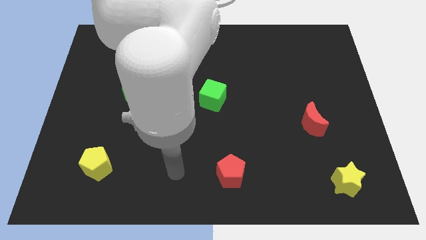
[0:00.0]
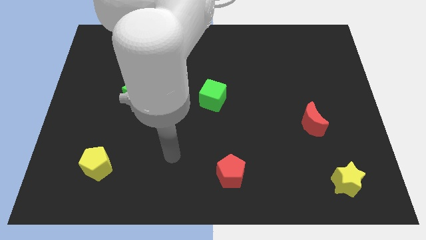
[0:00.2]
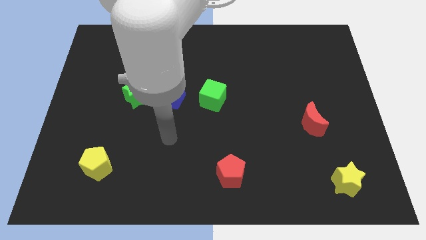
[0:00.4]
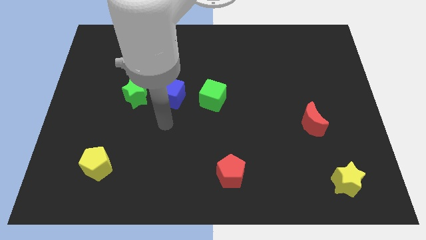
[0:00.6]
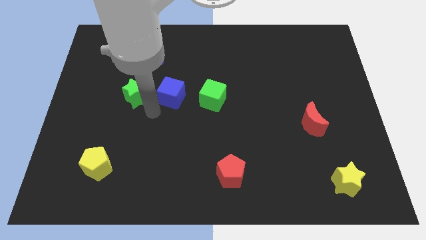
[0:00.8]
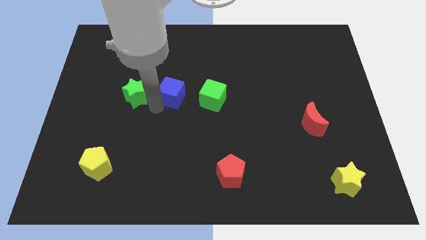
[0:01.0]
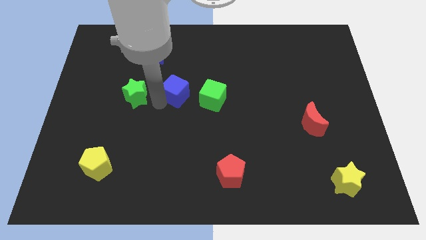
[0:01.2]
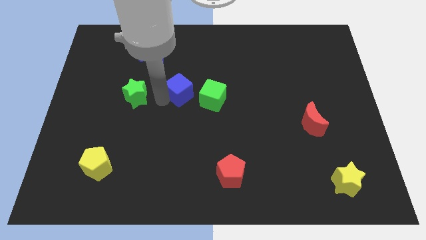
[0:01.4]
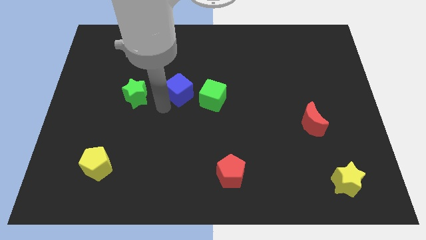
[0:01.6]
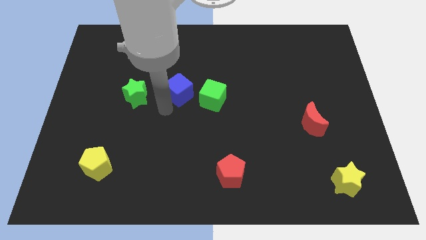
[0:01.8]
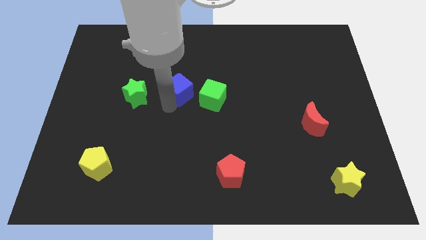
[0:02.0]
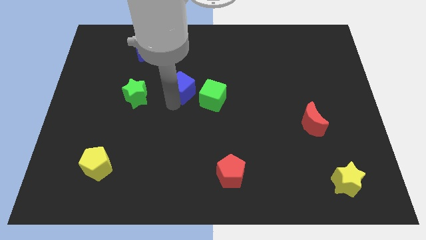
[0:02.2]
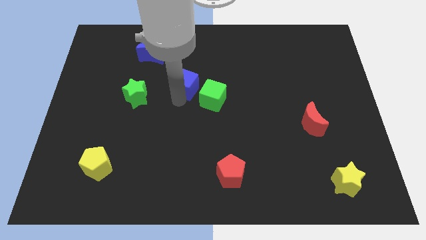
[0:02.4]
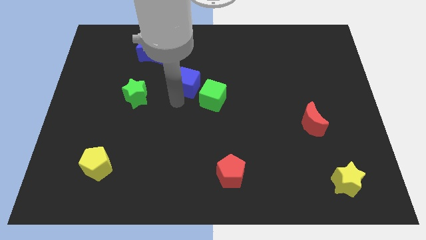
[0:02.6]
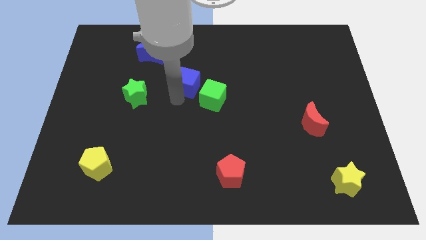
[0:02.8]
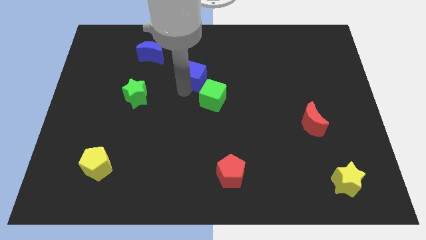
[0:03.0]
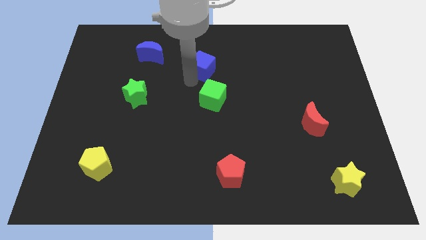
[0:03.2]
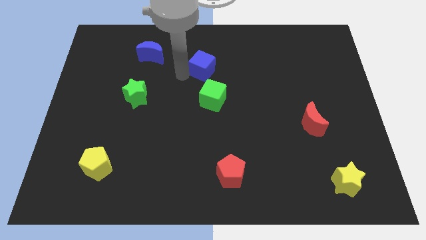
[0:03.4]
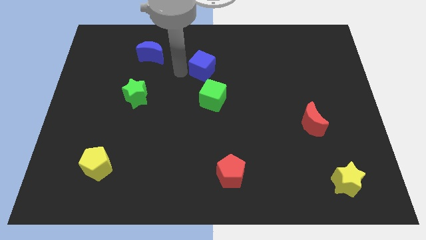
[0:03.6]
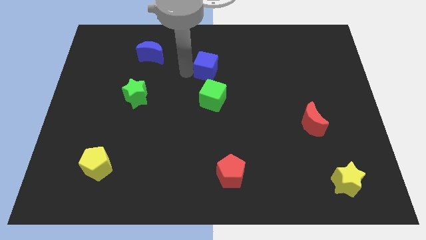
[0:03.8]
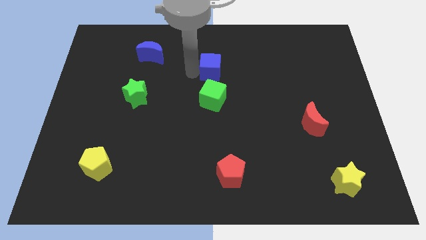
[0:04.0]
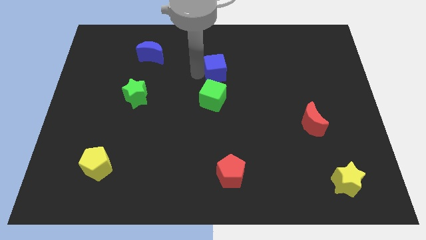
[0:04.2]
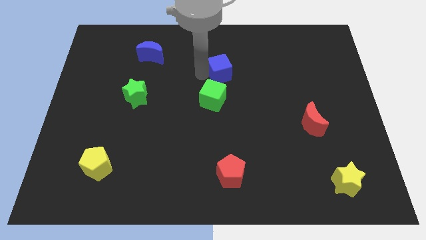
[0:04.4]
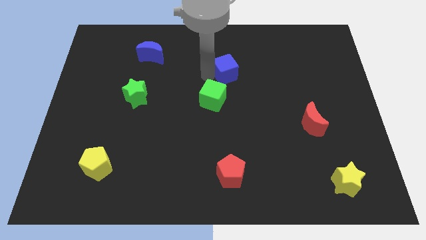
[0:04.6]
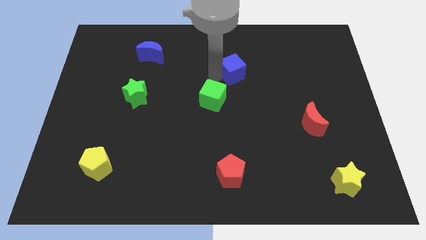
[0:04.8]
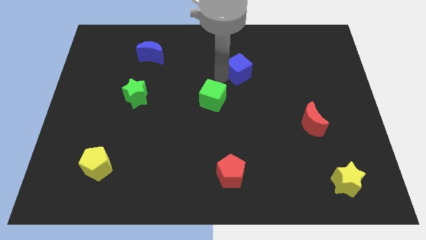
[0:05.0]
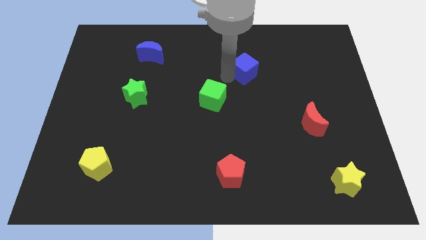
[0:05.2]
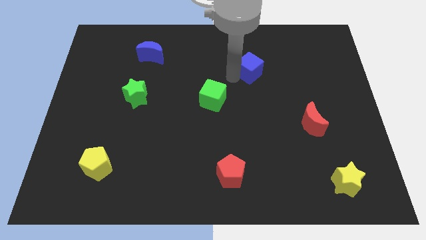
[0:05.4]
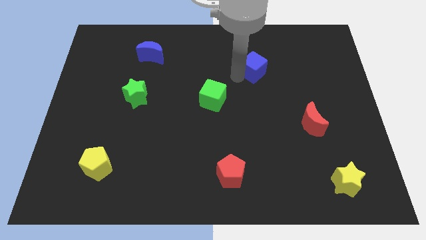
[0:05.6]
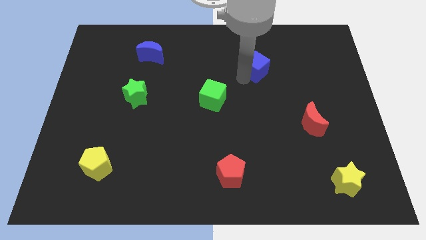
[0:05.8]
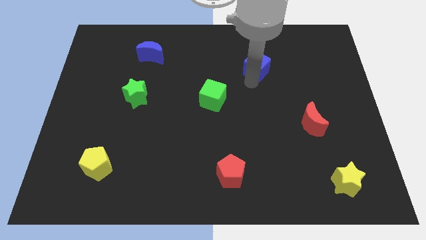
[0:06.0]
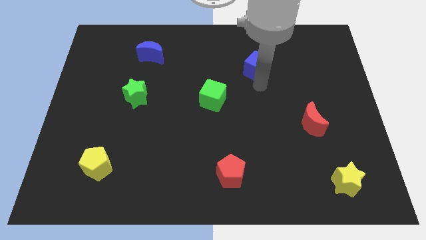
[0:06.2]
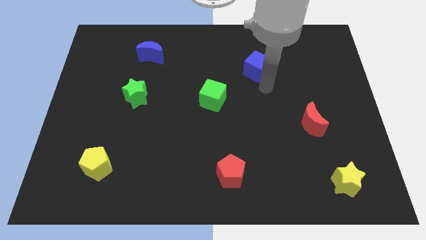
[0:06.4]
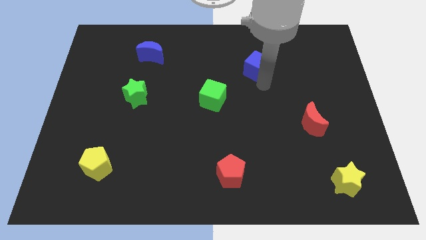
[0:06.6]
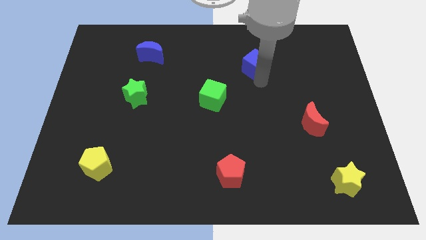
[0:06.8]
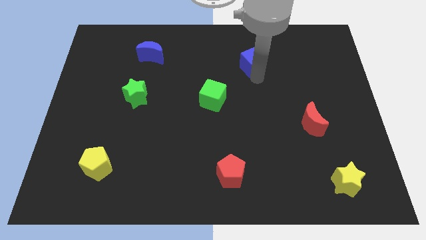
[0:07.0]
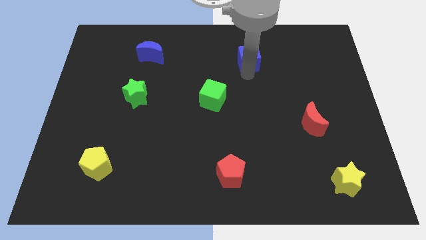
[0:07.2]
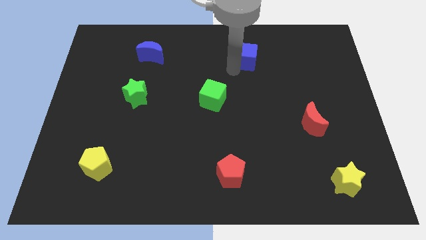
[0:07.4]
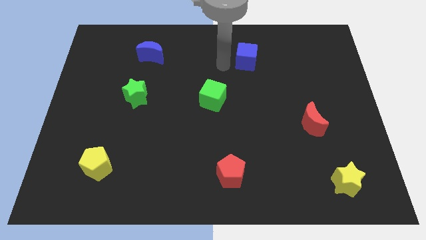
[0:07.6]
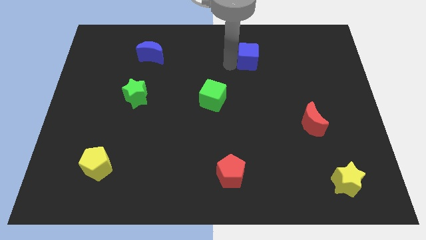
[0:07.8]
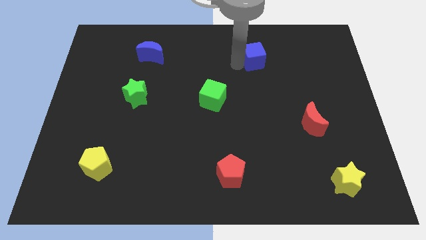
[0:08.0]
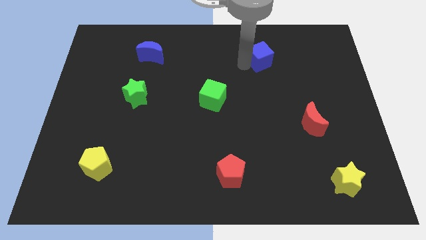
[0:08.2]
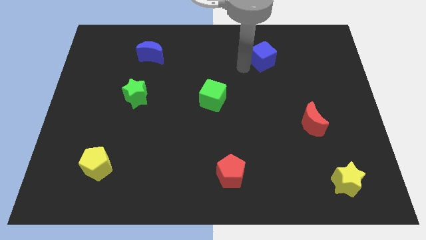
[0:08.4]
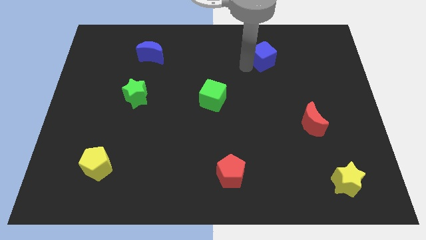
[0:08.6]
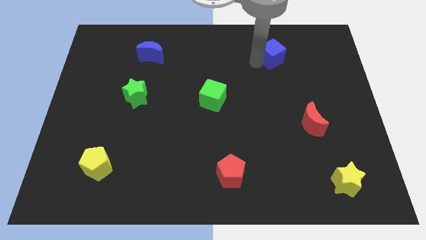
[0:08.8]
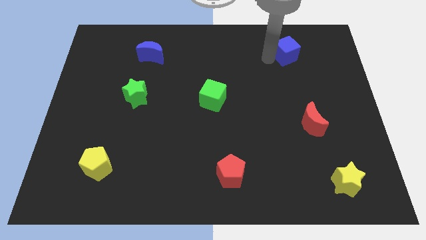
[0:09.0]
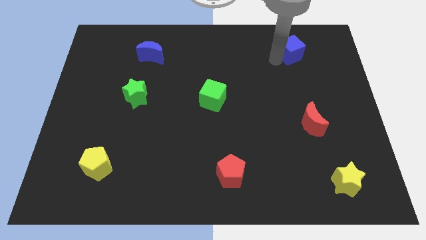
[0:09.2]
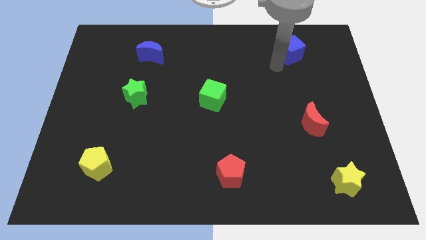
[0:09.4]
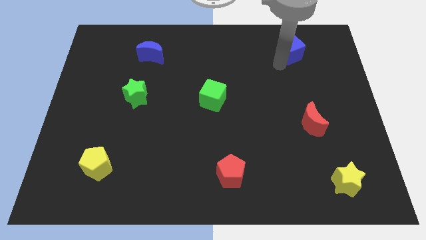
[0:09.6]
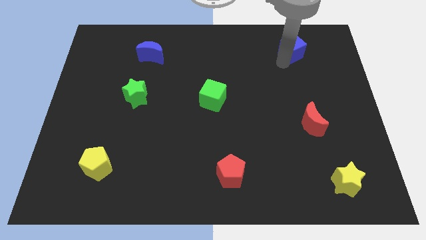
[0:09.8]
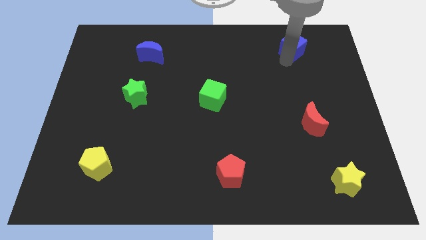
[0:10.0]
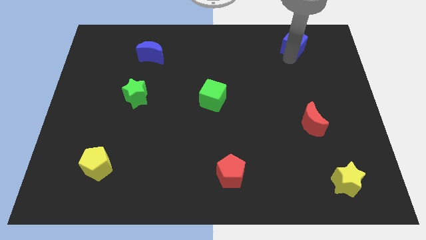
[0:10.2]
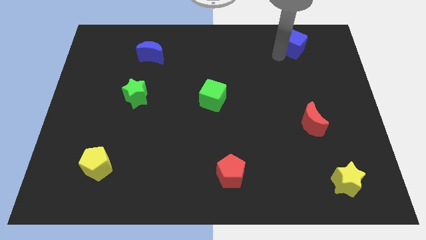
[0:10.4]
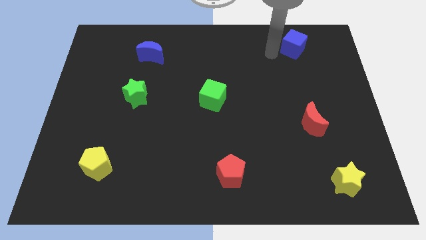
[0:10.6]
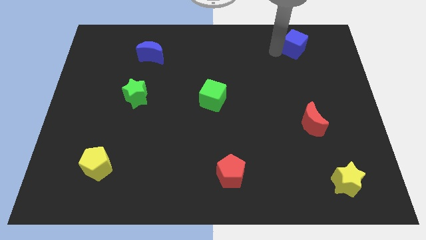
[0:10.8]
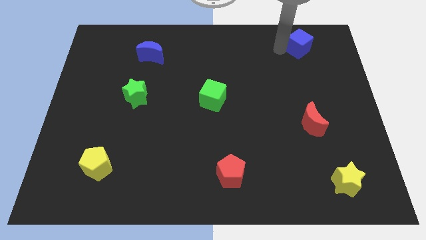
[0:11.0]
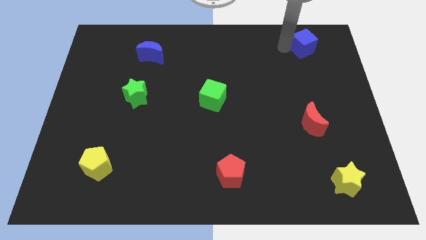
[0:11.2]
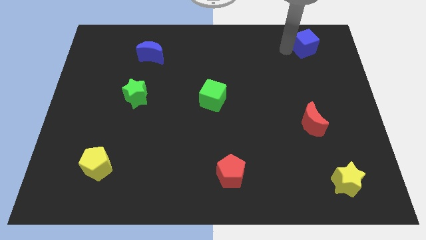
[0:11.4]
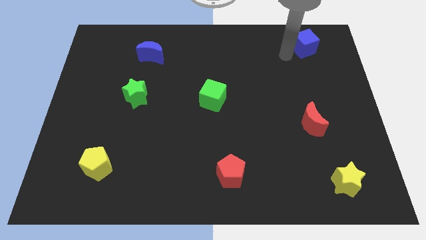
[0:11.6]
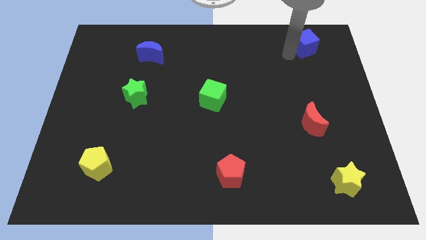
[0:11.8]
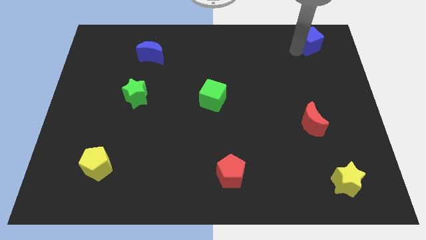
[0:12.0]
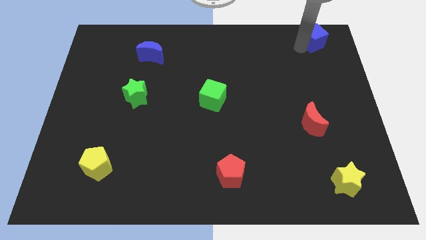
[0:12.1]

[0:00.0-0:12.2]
push the blue cube to the top right

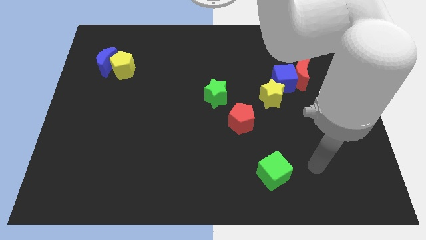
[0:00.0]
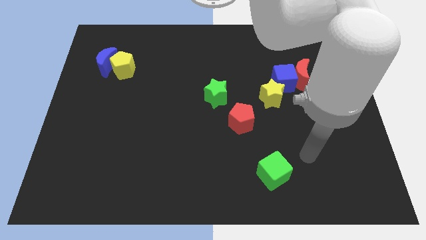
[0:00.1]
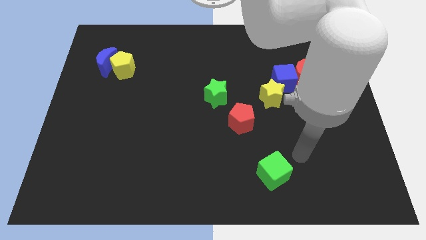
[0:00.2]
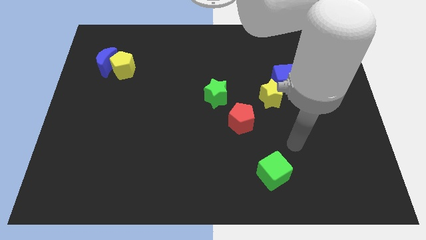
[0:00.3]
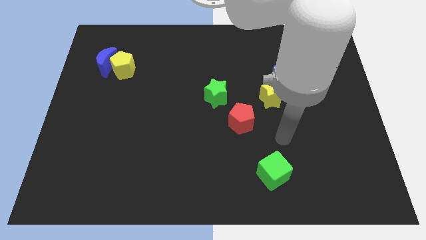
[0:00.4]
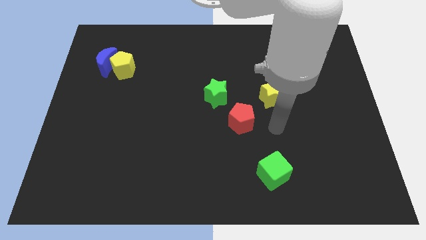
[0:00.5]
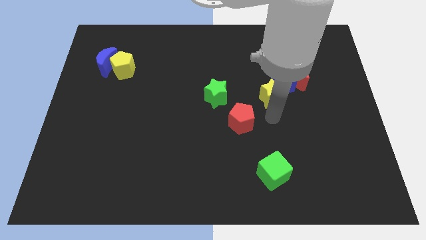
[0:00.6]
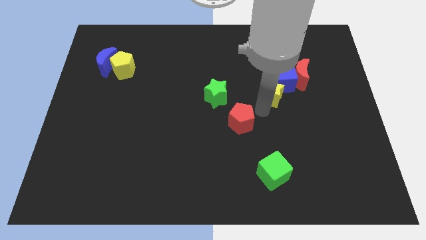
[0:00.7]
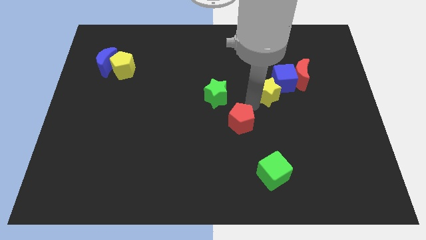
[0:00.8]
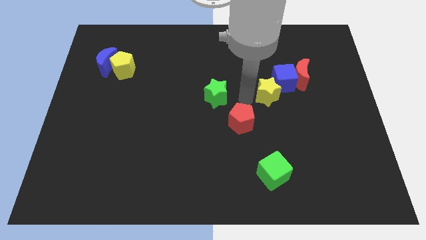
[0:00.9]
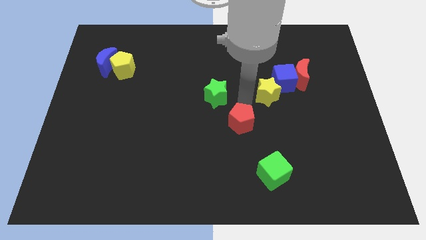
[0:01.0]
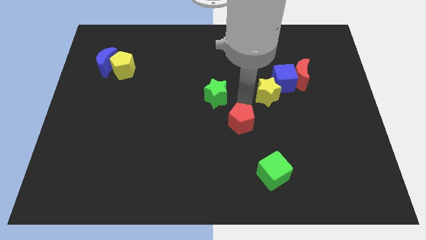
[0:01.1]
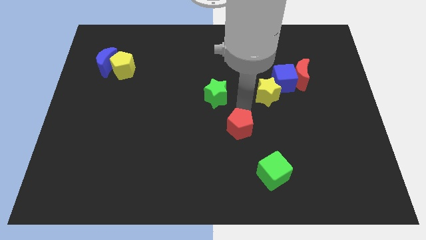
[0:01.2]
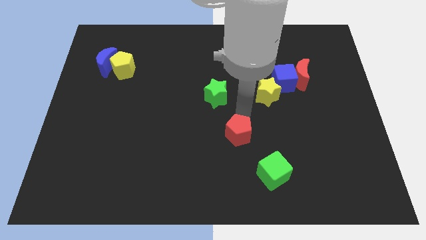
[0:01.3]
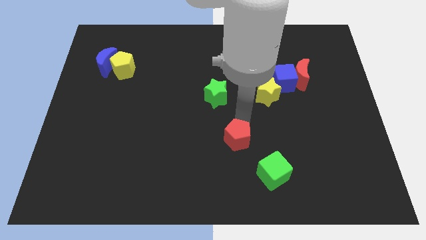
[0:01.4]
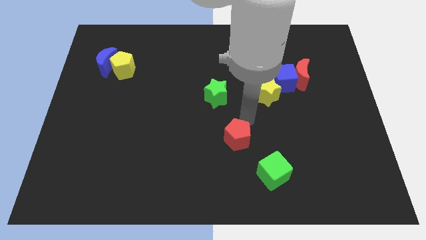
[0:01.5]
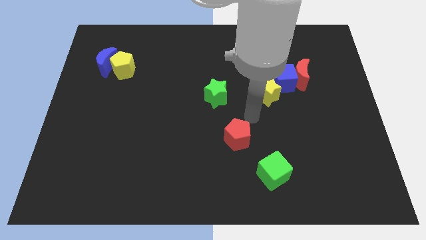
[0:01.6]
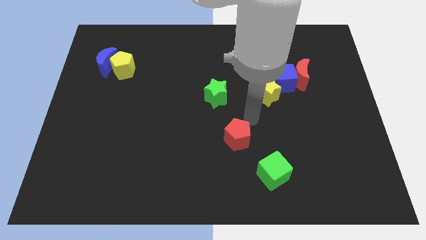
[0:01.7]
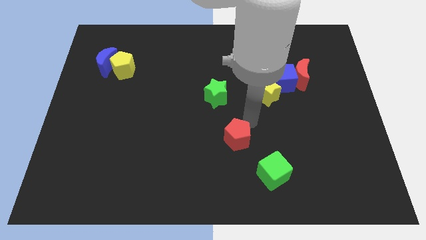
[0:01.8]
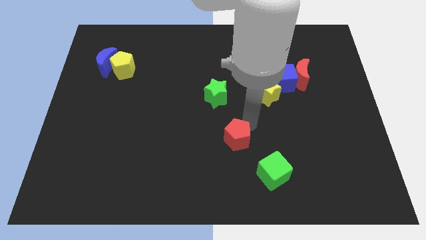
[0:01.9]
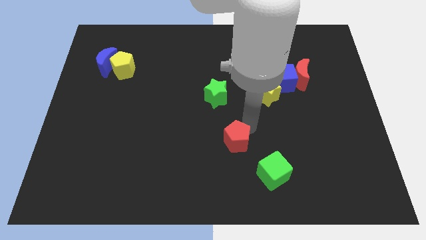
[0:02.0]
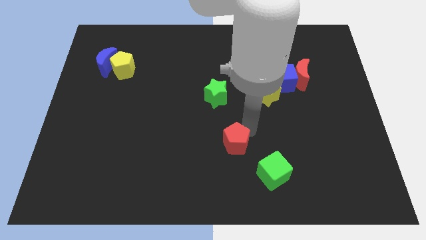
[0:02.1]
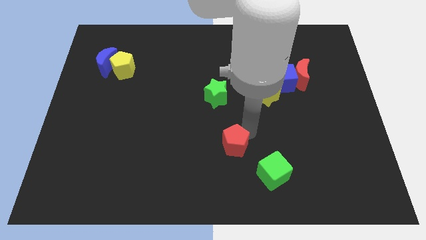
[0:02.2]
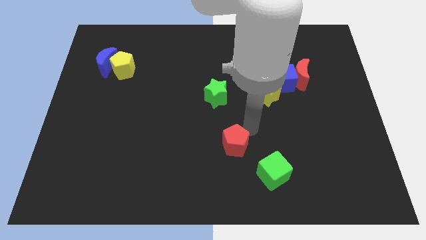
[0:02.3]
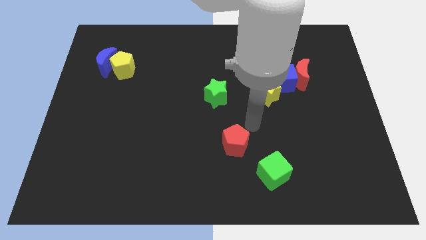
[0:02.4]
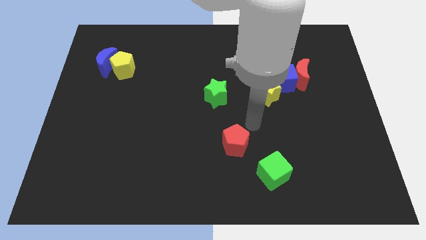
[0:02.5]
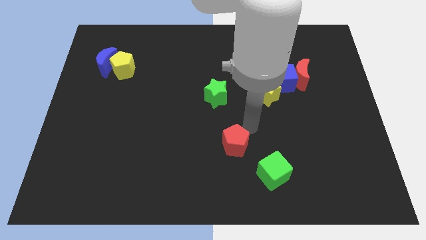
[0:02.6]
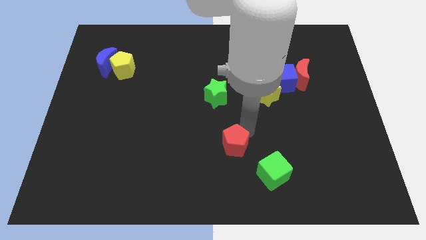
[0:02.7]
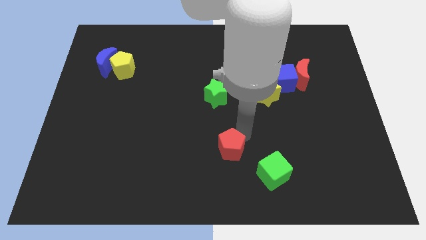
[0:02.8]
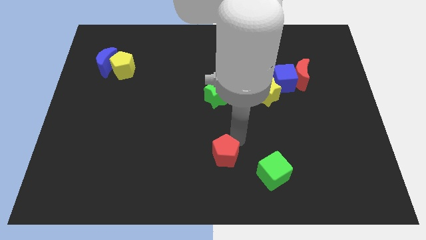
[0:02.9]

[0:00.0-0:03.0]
push the red pentagon to the bottom side
